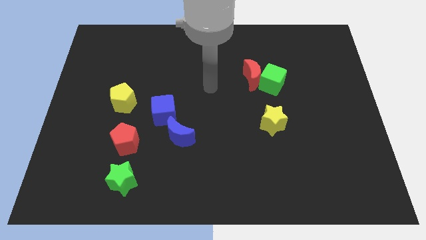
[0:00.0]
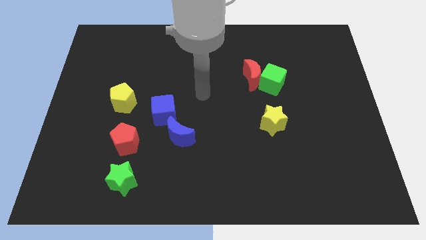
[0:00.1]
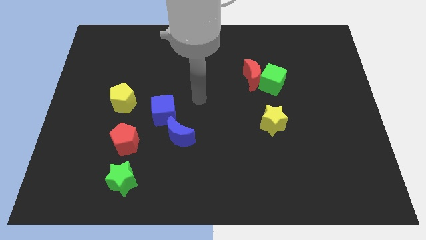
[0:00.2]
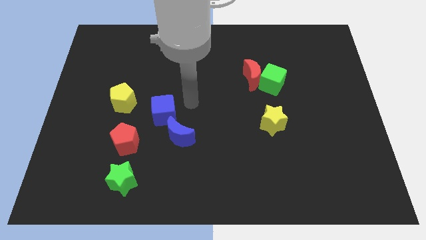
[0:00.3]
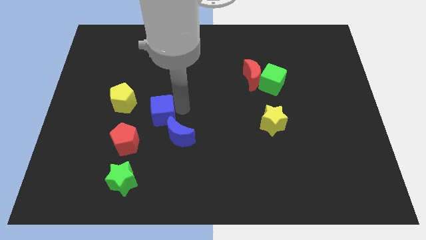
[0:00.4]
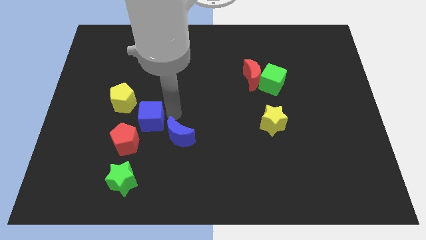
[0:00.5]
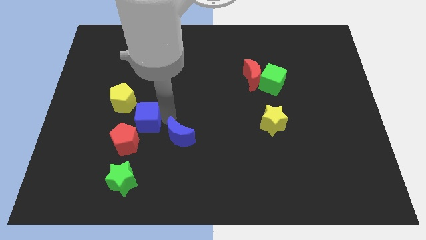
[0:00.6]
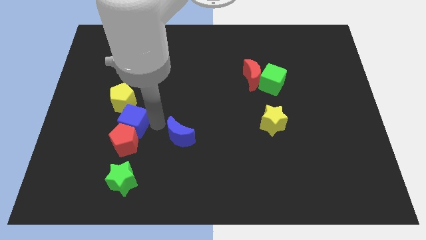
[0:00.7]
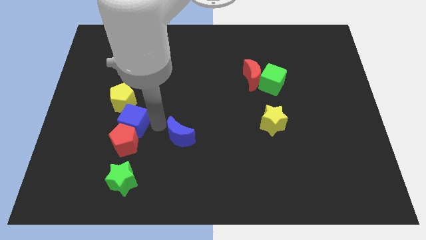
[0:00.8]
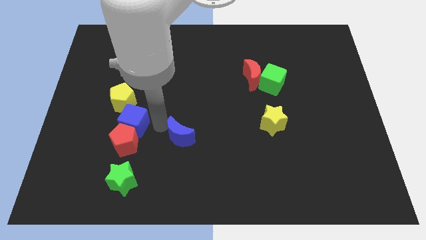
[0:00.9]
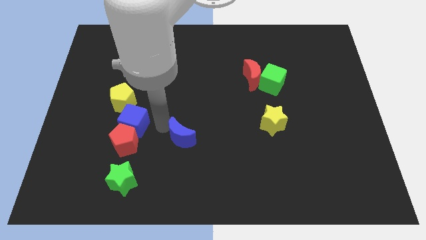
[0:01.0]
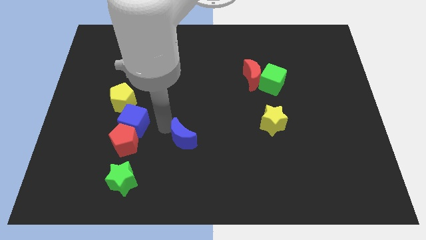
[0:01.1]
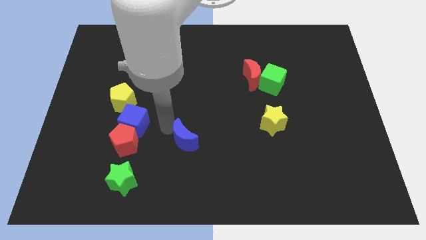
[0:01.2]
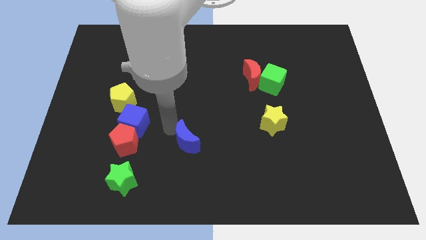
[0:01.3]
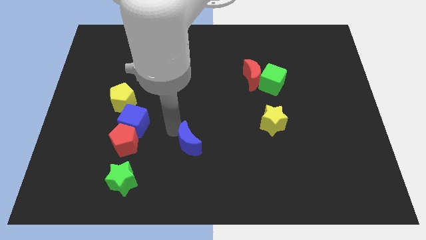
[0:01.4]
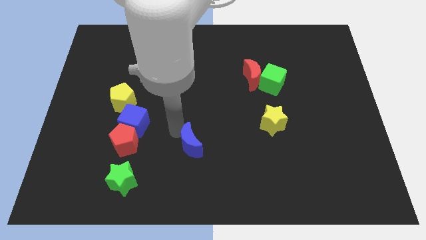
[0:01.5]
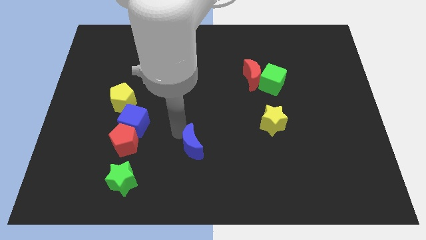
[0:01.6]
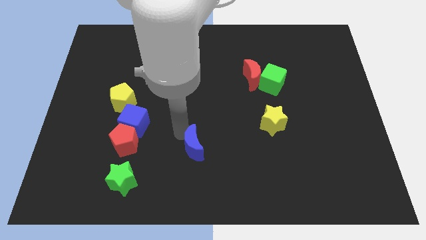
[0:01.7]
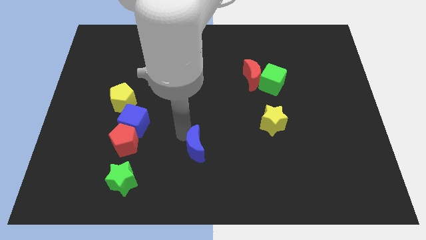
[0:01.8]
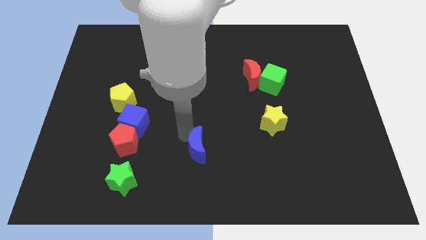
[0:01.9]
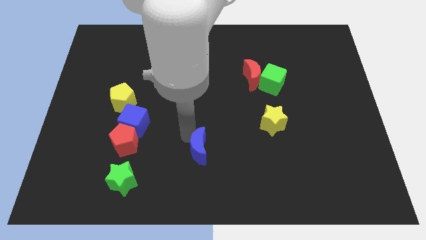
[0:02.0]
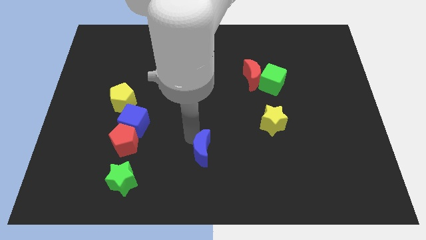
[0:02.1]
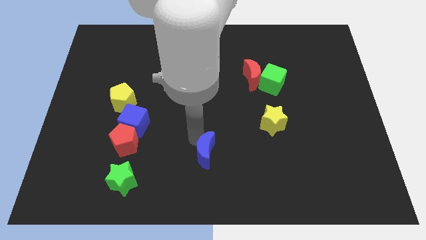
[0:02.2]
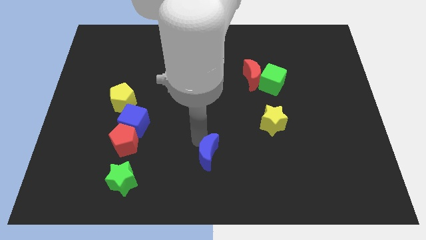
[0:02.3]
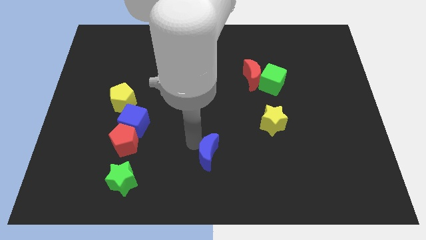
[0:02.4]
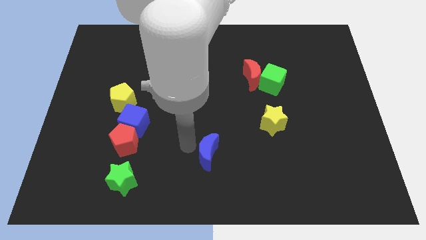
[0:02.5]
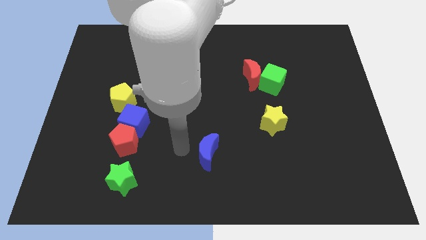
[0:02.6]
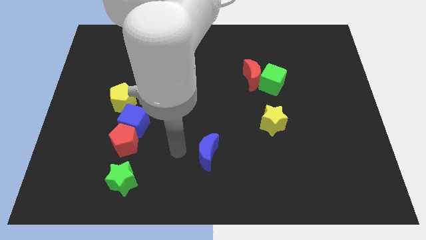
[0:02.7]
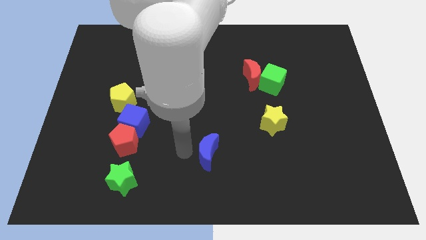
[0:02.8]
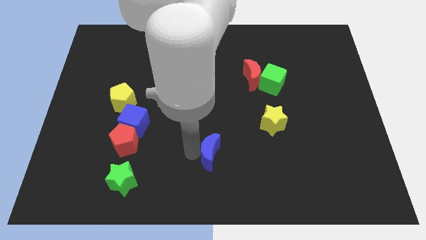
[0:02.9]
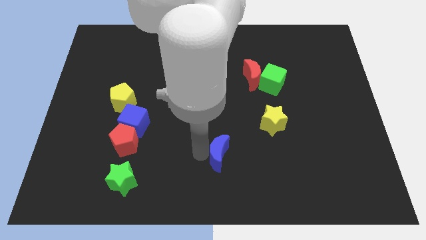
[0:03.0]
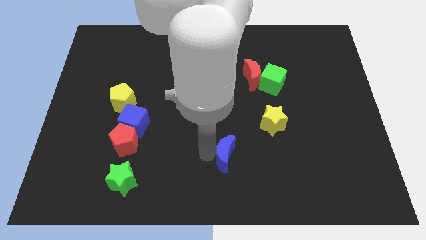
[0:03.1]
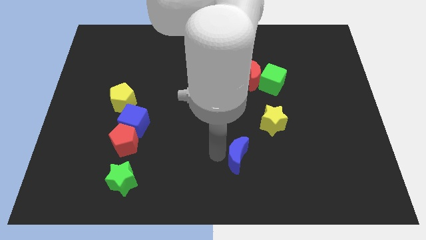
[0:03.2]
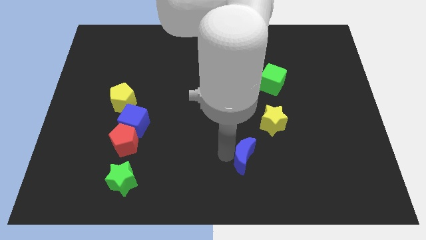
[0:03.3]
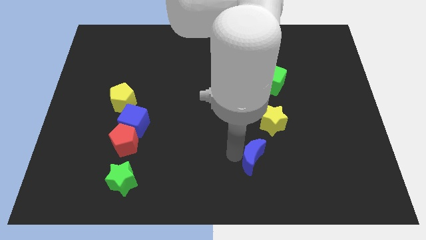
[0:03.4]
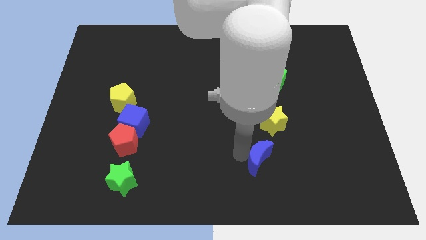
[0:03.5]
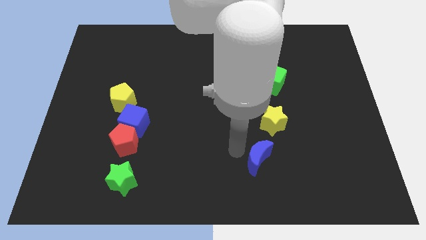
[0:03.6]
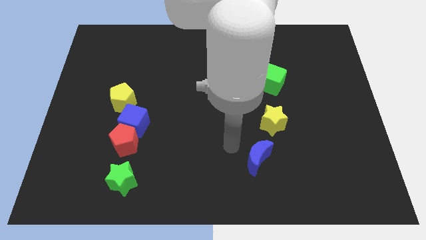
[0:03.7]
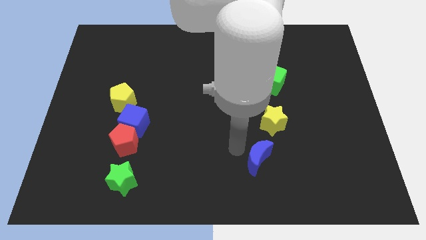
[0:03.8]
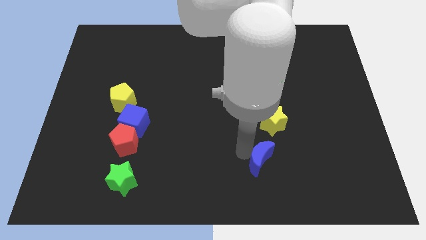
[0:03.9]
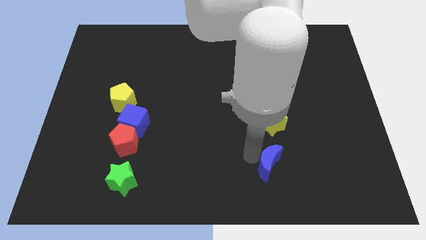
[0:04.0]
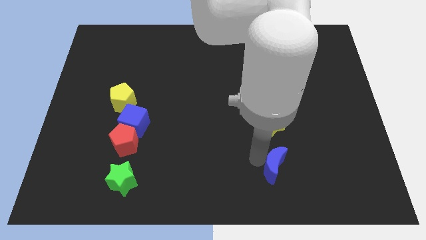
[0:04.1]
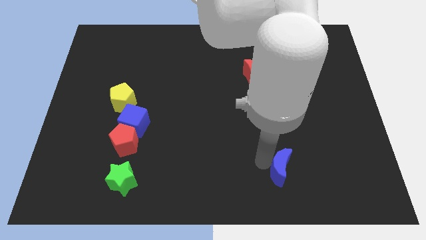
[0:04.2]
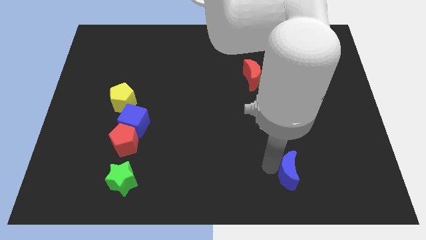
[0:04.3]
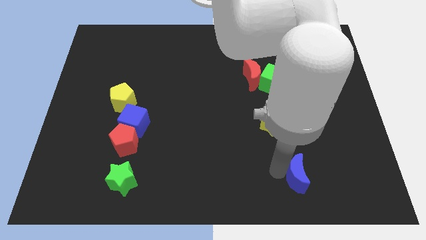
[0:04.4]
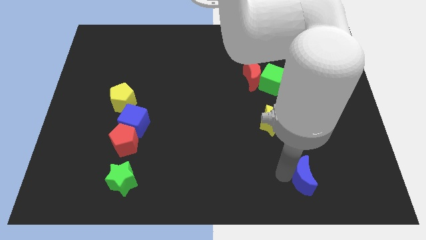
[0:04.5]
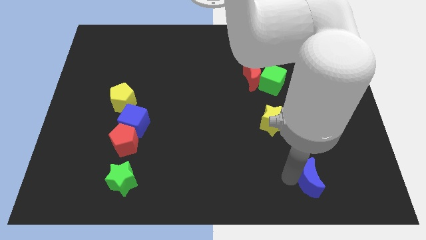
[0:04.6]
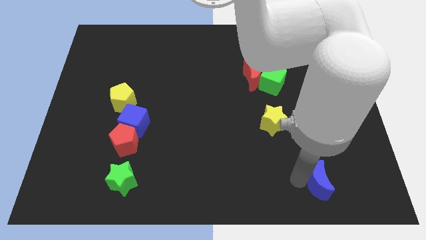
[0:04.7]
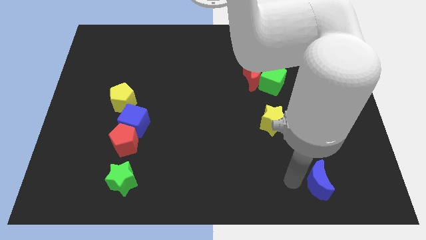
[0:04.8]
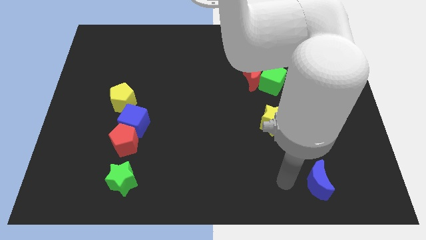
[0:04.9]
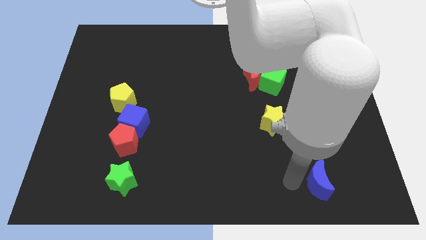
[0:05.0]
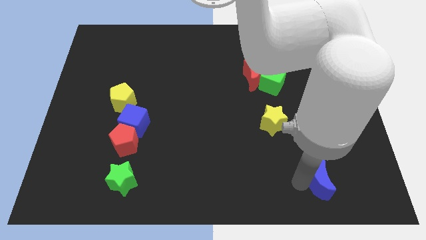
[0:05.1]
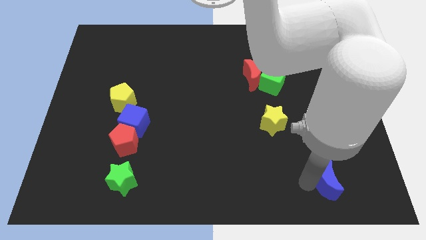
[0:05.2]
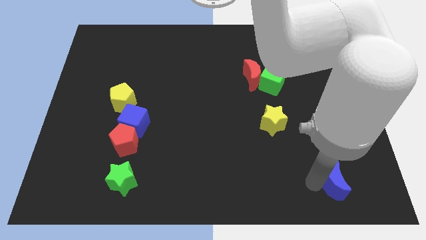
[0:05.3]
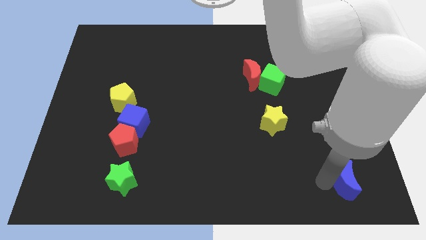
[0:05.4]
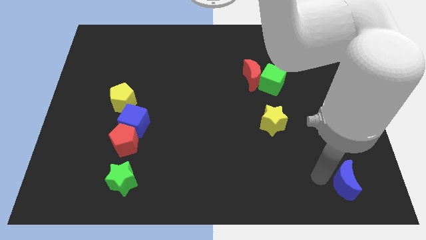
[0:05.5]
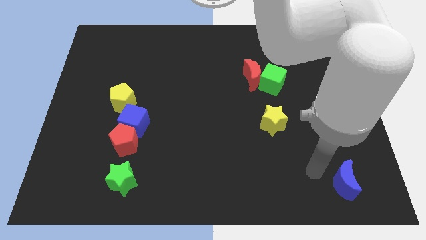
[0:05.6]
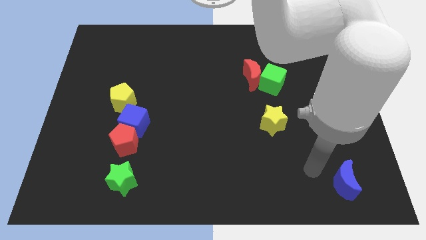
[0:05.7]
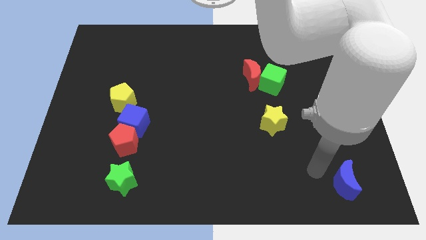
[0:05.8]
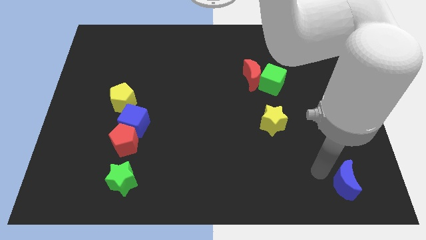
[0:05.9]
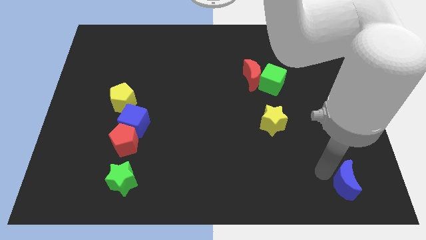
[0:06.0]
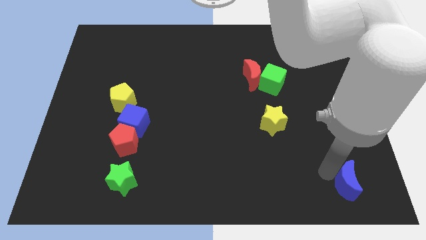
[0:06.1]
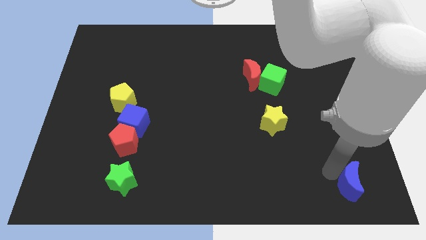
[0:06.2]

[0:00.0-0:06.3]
slide the blue moon to the bottom right of the board

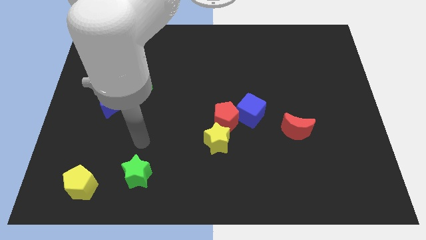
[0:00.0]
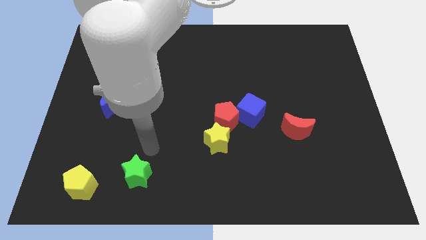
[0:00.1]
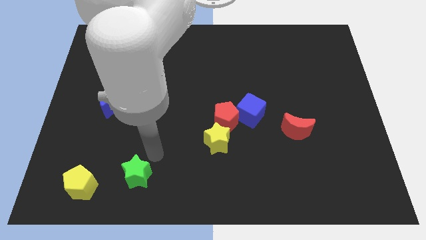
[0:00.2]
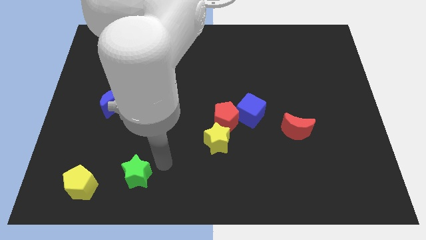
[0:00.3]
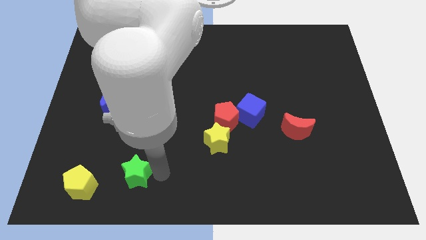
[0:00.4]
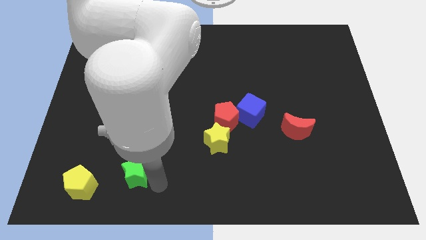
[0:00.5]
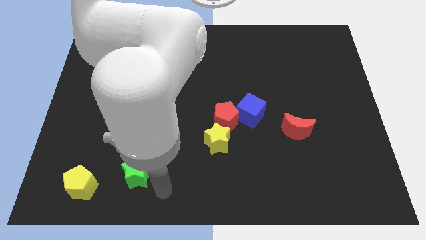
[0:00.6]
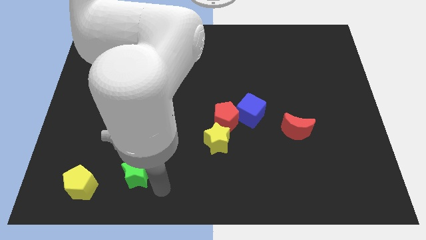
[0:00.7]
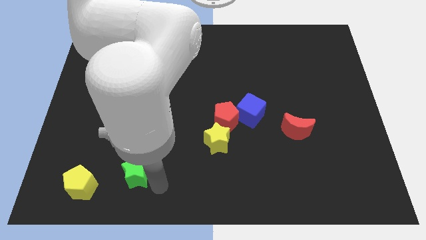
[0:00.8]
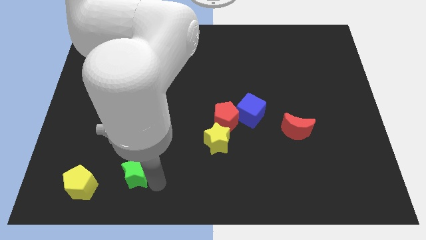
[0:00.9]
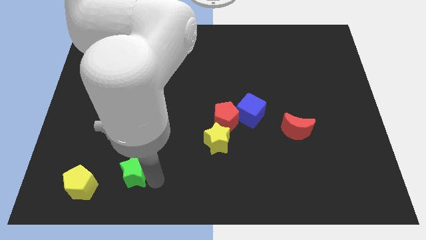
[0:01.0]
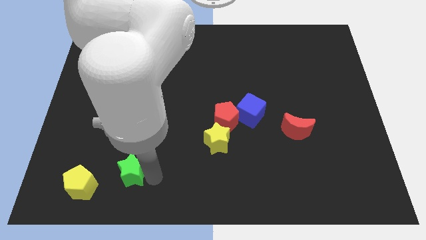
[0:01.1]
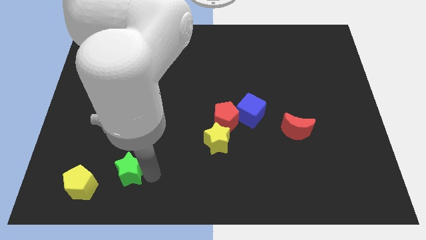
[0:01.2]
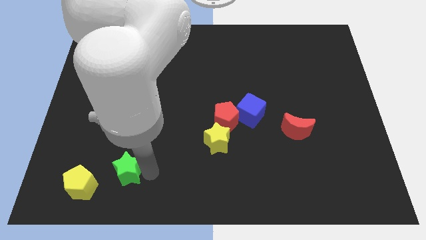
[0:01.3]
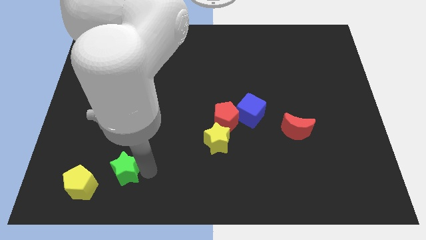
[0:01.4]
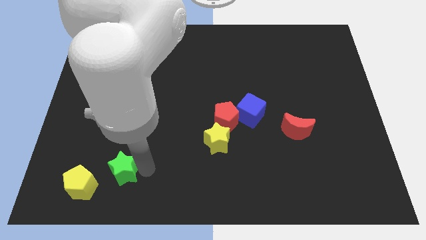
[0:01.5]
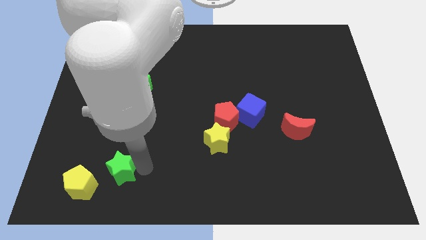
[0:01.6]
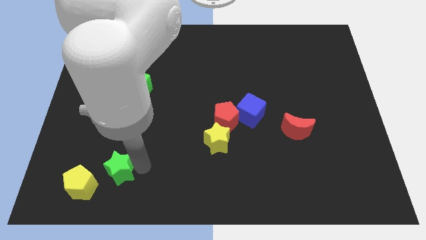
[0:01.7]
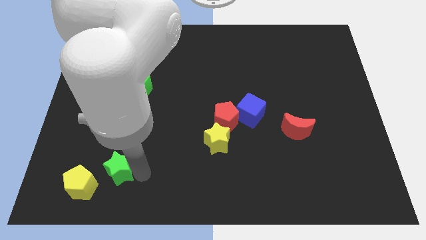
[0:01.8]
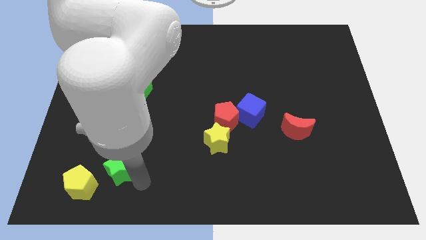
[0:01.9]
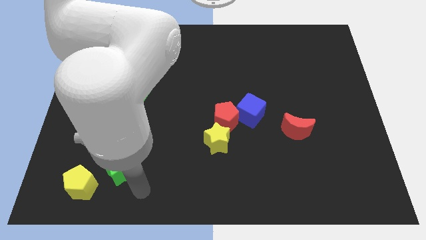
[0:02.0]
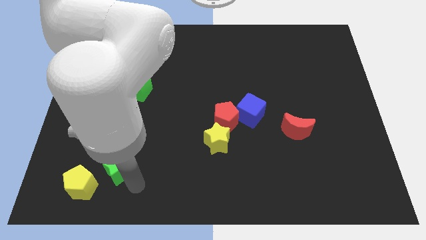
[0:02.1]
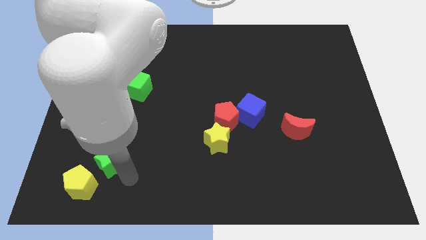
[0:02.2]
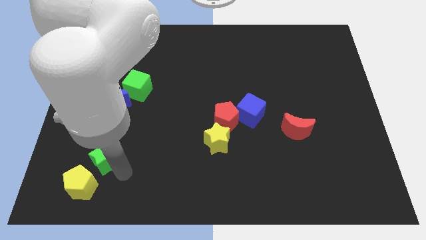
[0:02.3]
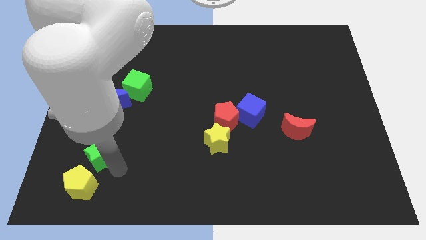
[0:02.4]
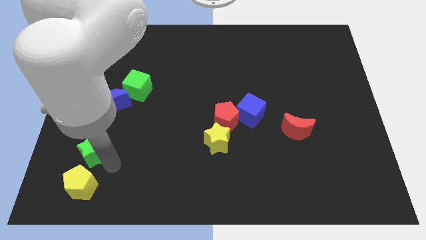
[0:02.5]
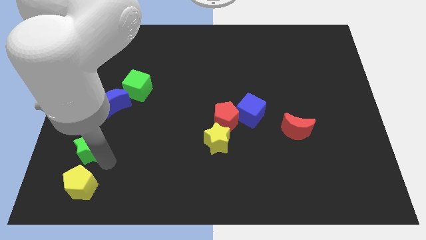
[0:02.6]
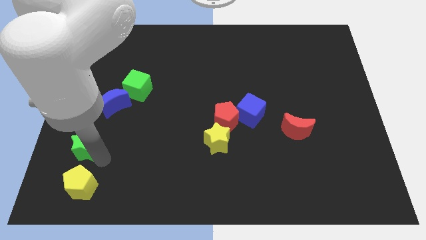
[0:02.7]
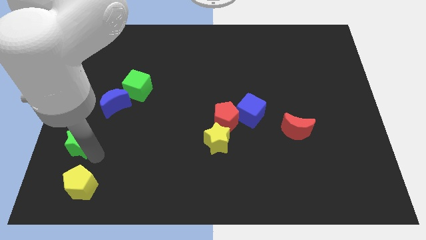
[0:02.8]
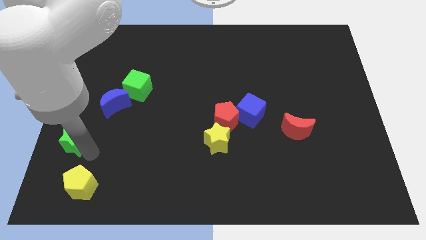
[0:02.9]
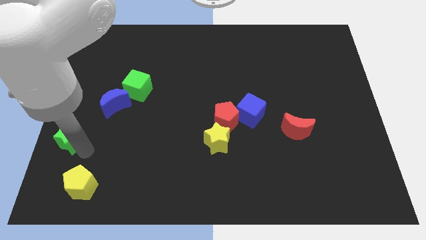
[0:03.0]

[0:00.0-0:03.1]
slide the green star to the left side of the board
